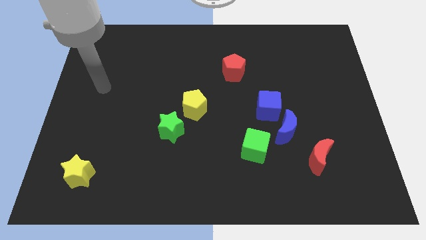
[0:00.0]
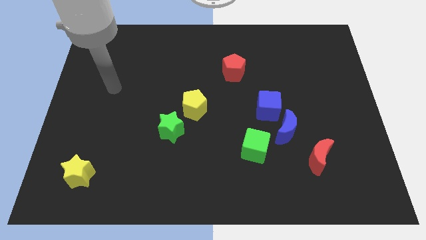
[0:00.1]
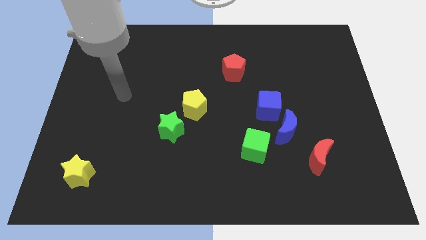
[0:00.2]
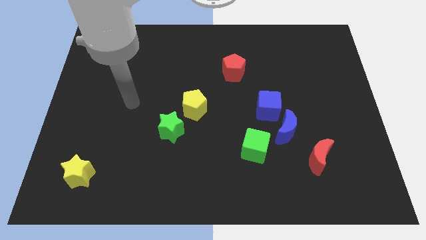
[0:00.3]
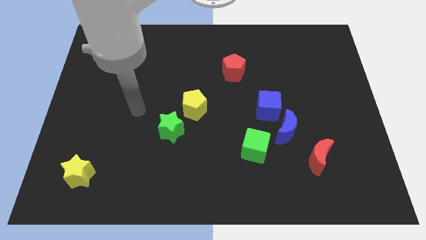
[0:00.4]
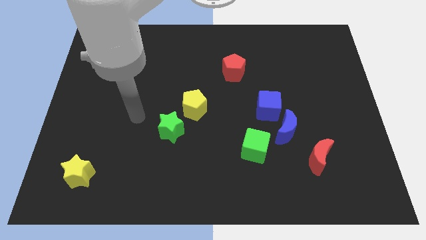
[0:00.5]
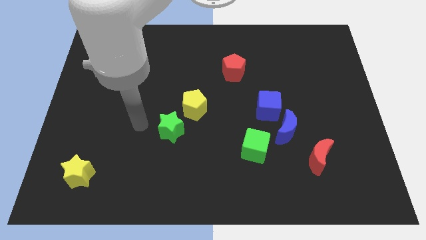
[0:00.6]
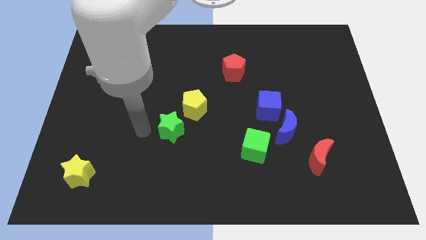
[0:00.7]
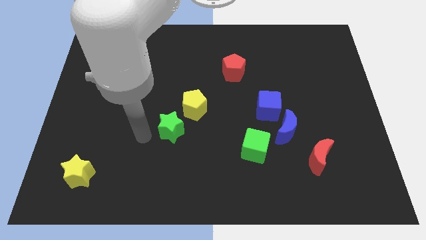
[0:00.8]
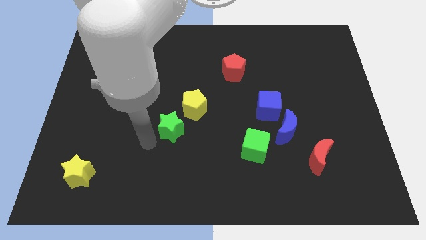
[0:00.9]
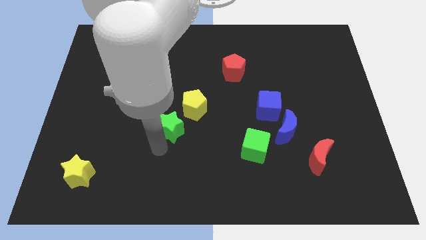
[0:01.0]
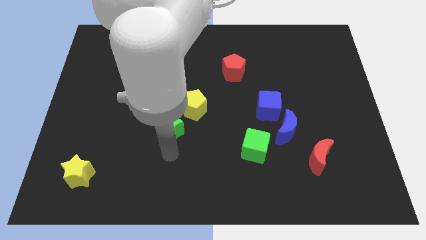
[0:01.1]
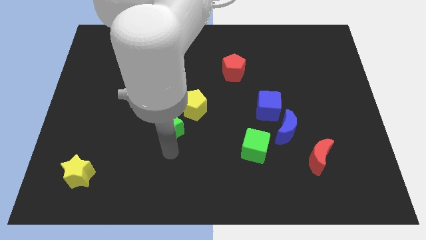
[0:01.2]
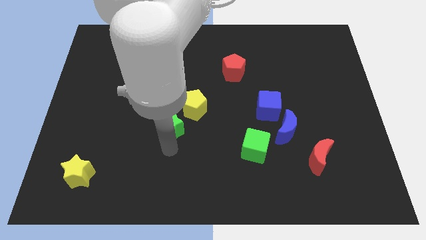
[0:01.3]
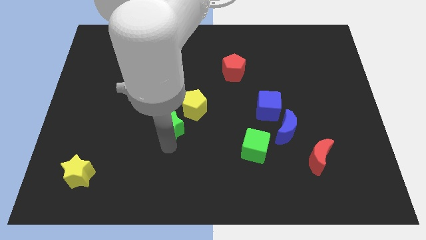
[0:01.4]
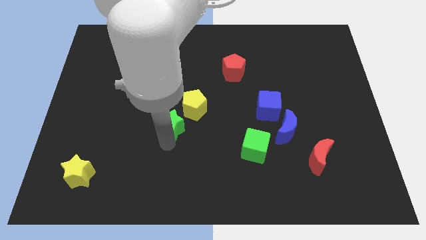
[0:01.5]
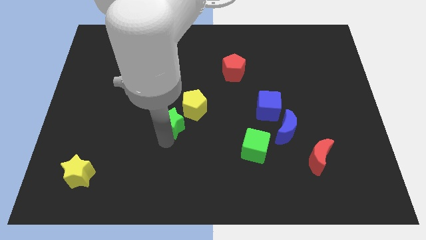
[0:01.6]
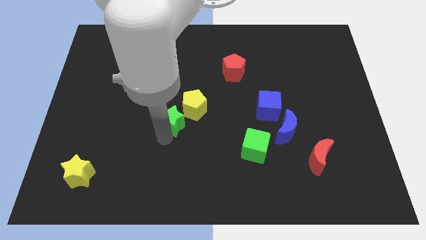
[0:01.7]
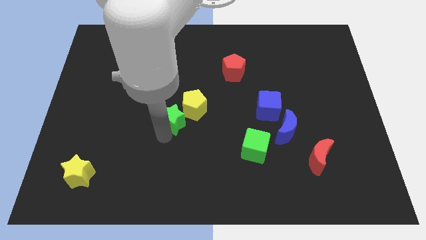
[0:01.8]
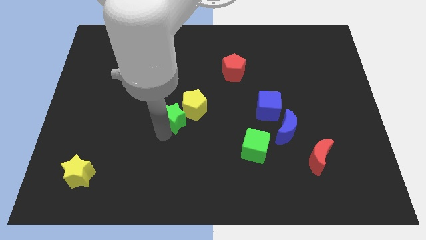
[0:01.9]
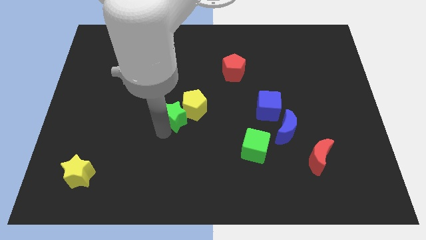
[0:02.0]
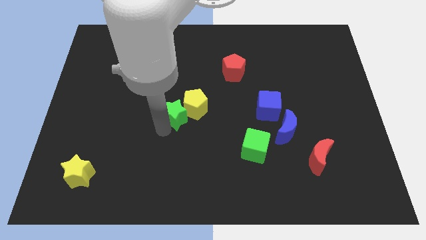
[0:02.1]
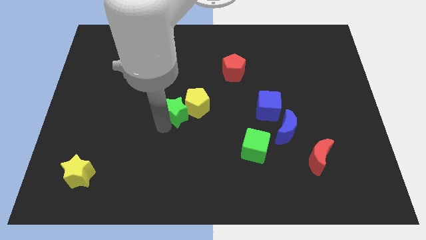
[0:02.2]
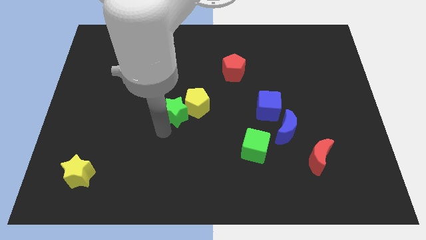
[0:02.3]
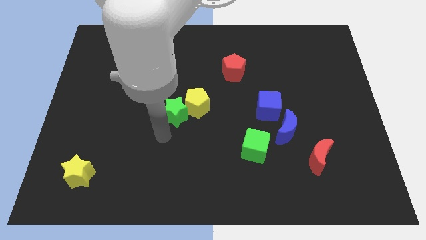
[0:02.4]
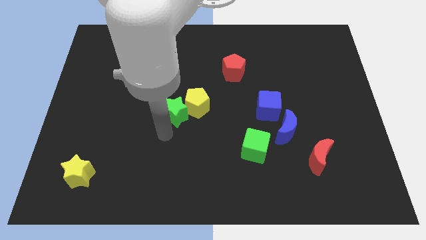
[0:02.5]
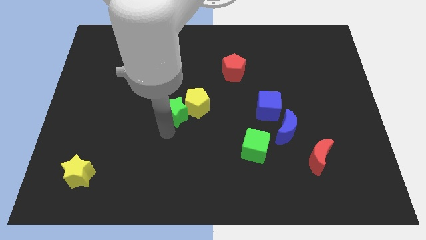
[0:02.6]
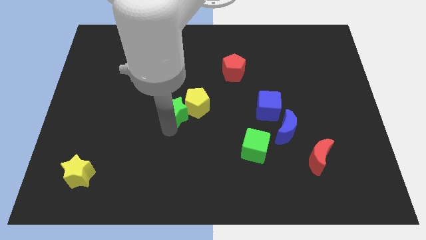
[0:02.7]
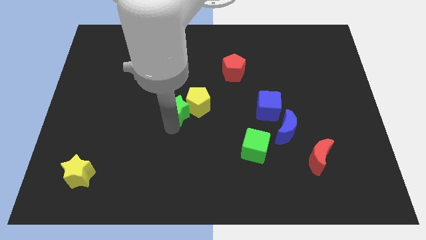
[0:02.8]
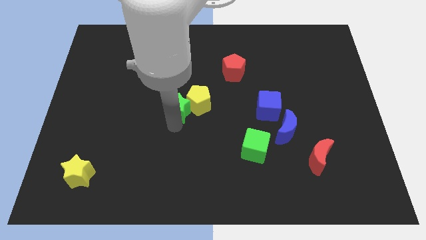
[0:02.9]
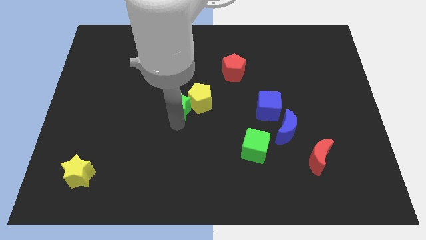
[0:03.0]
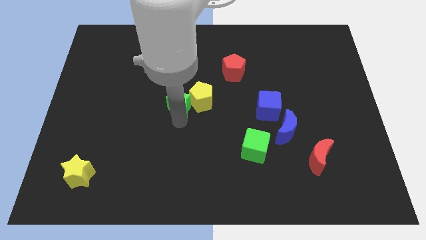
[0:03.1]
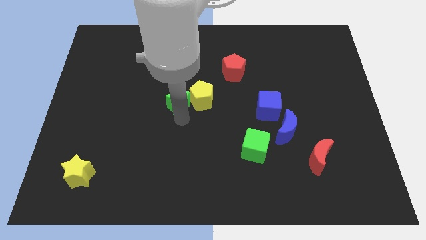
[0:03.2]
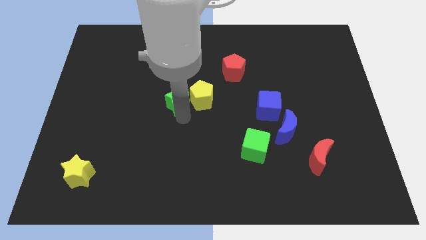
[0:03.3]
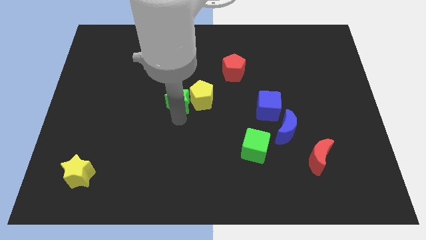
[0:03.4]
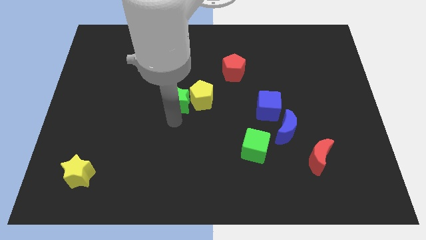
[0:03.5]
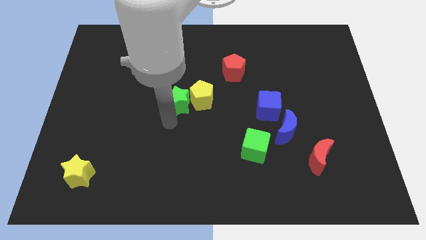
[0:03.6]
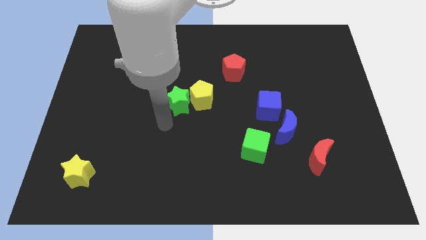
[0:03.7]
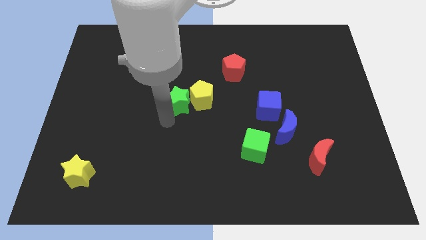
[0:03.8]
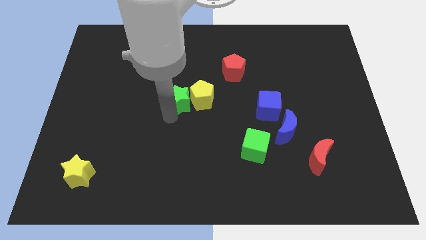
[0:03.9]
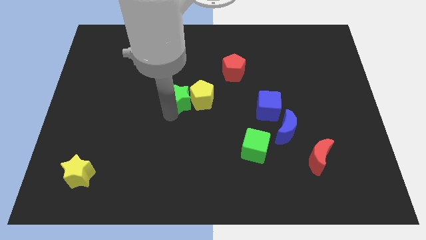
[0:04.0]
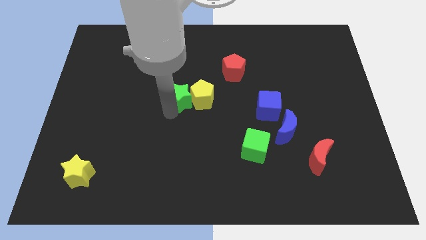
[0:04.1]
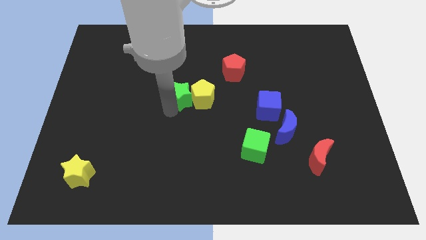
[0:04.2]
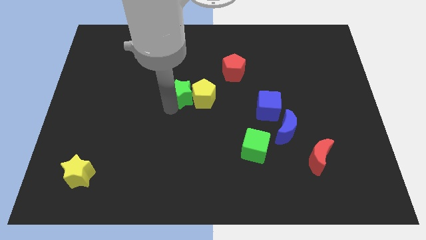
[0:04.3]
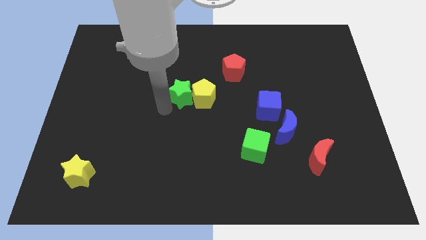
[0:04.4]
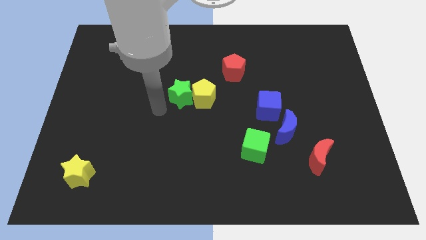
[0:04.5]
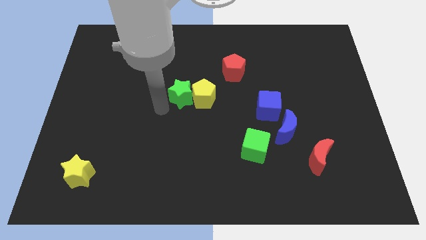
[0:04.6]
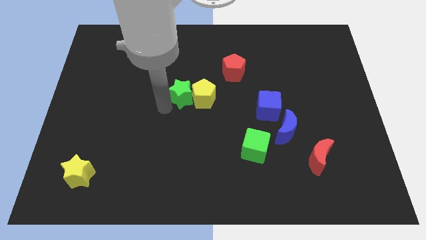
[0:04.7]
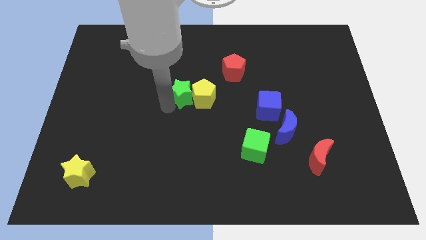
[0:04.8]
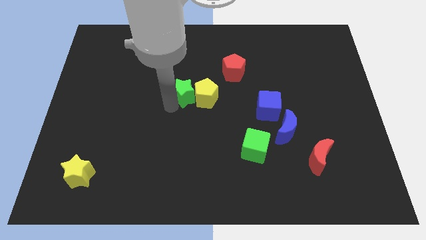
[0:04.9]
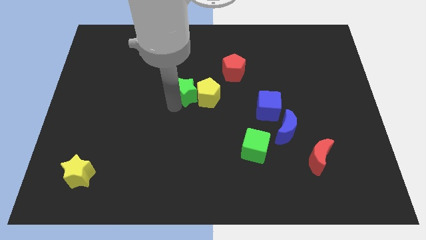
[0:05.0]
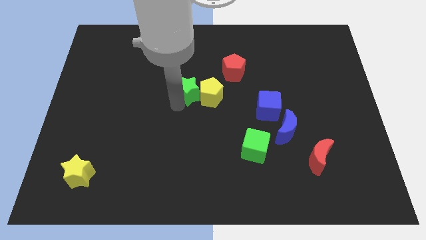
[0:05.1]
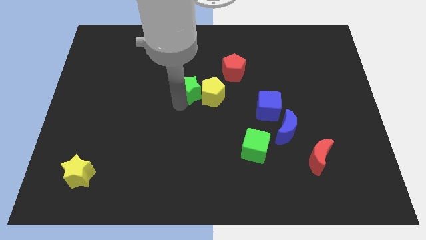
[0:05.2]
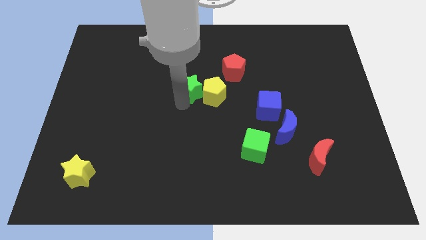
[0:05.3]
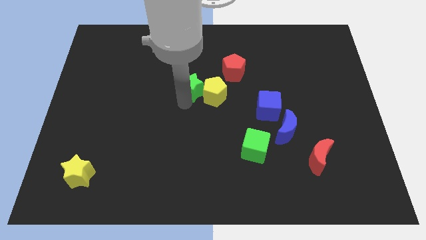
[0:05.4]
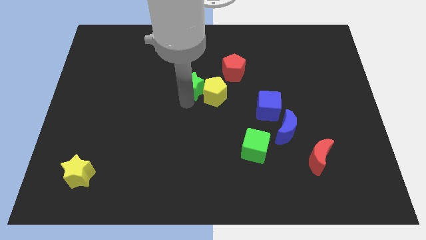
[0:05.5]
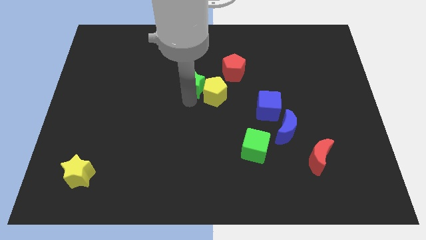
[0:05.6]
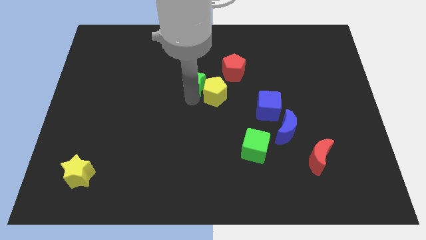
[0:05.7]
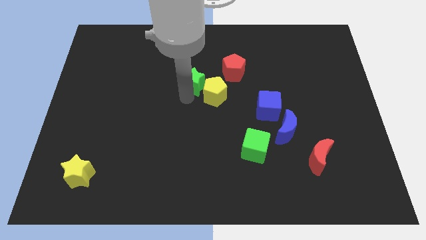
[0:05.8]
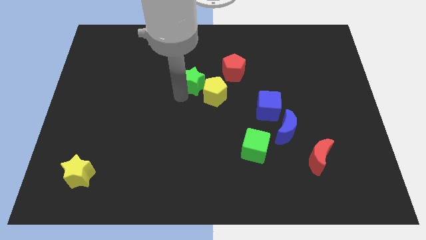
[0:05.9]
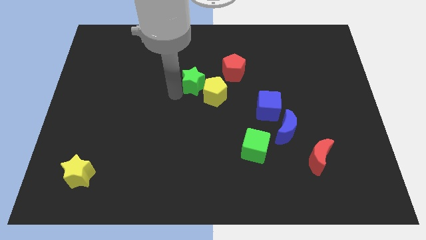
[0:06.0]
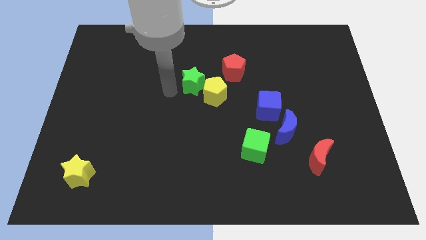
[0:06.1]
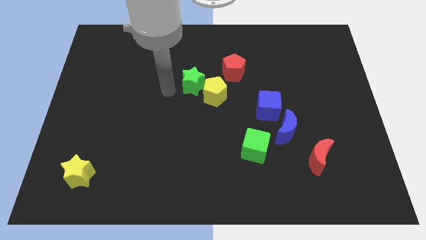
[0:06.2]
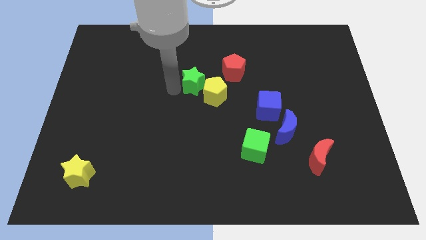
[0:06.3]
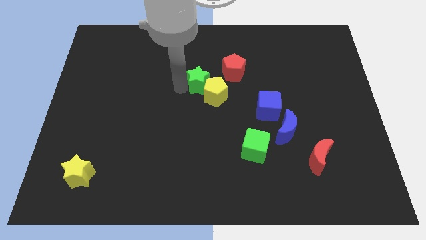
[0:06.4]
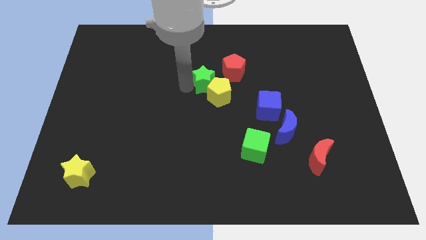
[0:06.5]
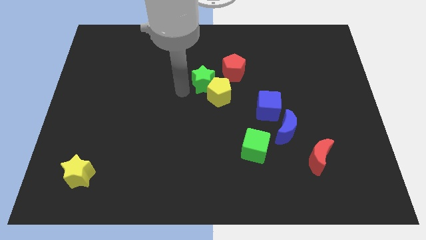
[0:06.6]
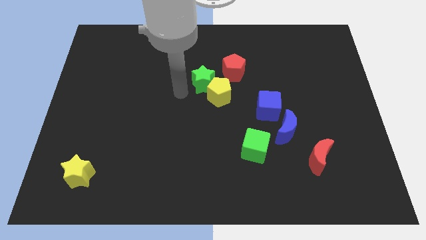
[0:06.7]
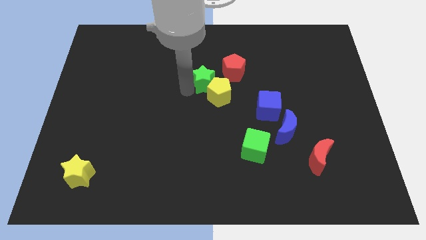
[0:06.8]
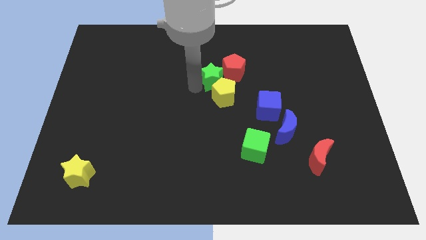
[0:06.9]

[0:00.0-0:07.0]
put the green star close to the red pentagon

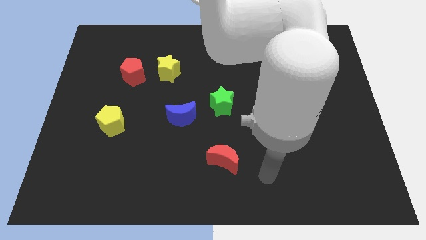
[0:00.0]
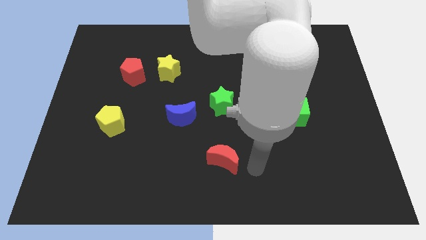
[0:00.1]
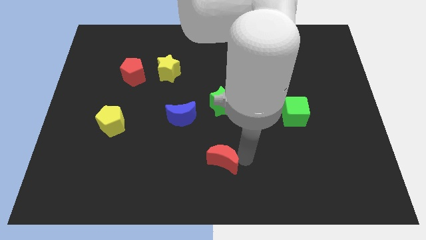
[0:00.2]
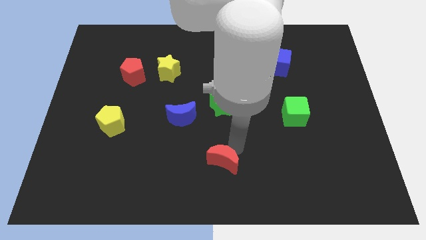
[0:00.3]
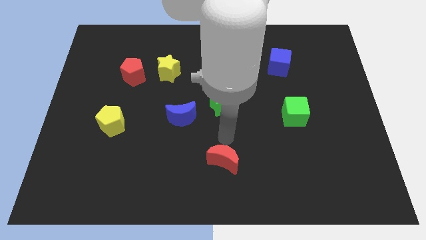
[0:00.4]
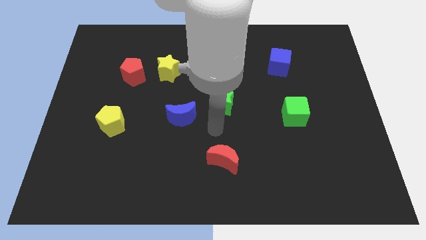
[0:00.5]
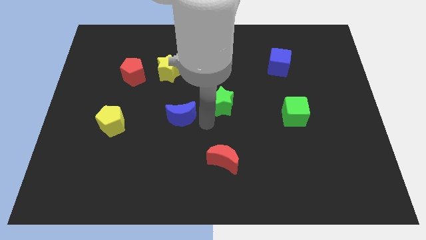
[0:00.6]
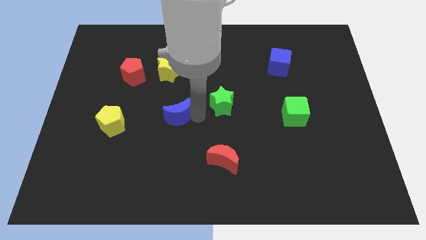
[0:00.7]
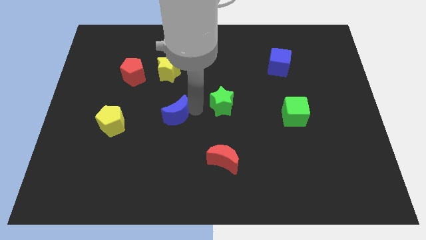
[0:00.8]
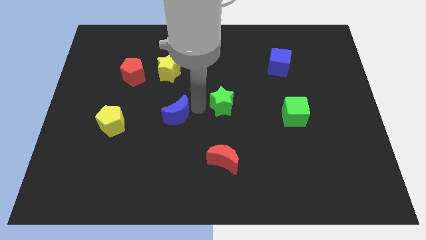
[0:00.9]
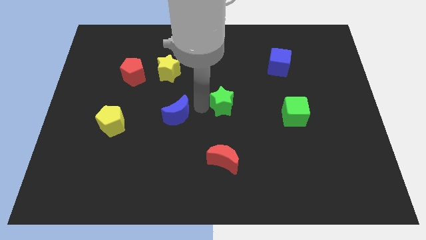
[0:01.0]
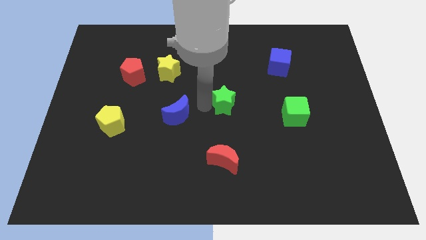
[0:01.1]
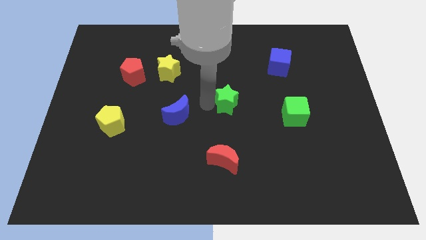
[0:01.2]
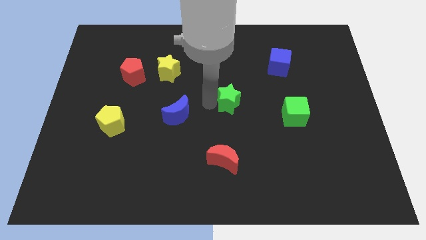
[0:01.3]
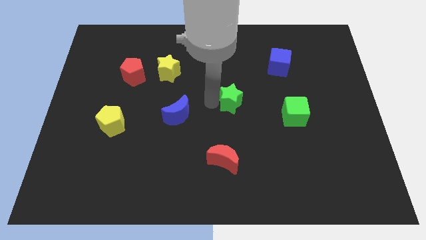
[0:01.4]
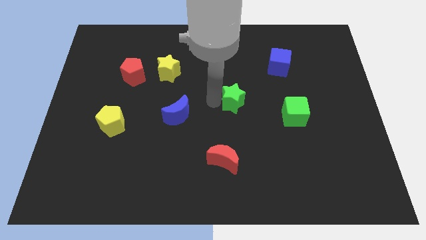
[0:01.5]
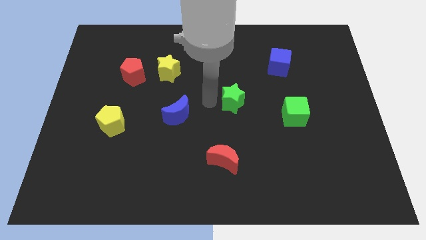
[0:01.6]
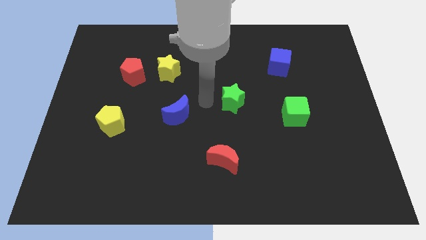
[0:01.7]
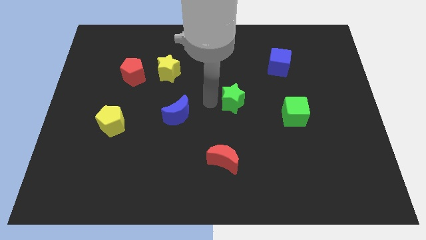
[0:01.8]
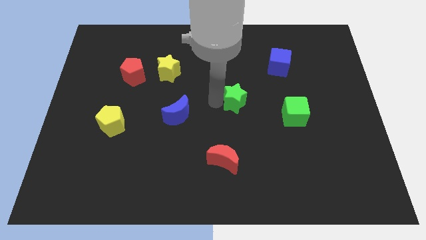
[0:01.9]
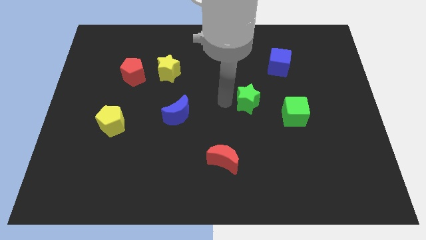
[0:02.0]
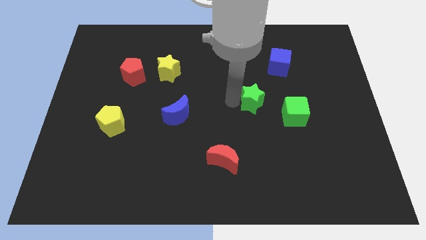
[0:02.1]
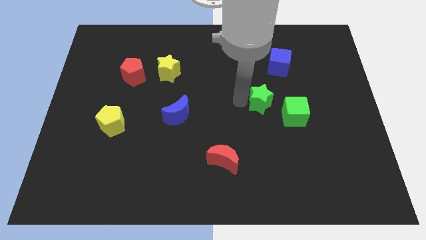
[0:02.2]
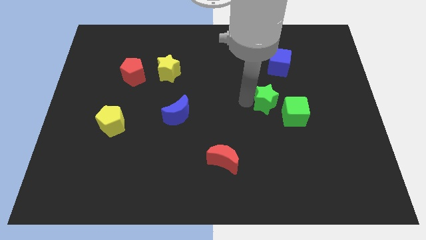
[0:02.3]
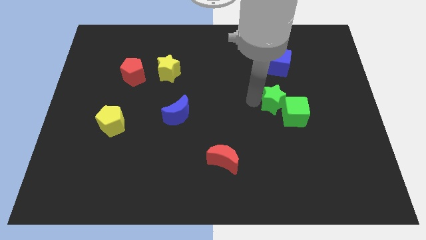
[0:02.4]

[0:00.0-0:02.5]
move the green star close to the green cube
